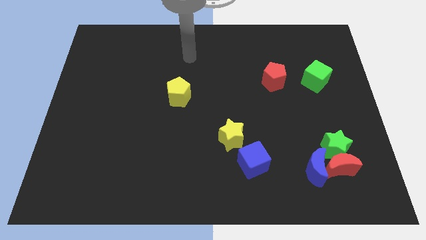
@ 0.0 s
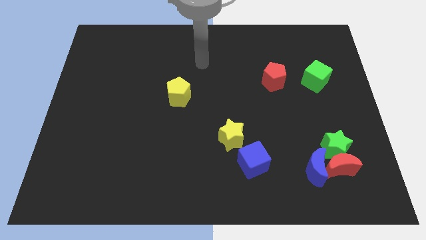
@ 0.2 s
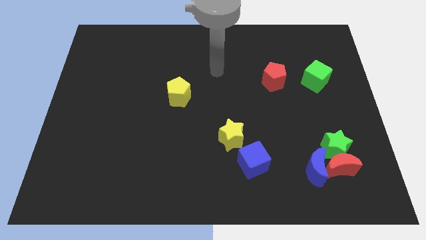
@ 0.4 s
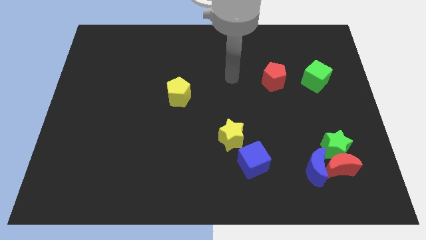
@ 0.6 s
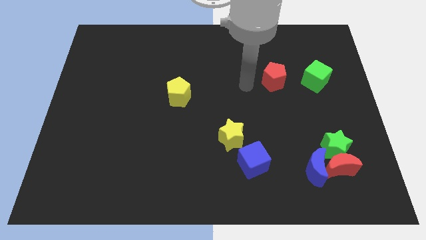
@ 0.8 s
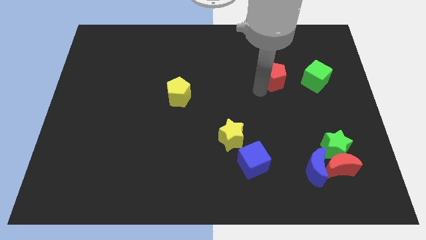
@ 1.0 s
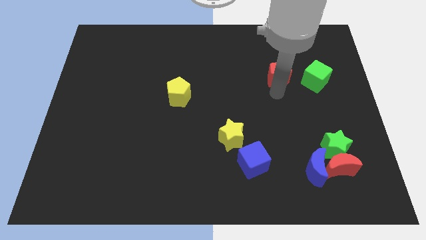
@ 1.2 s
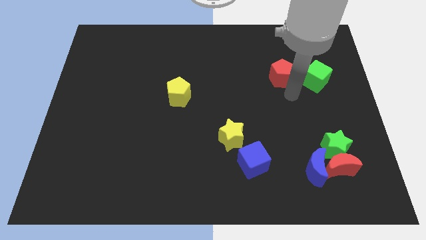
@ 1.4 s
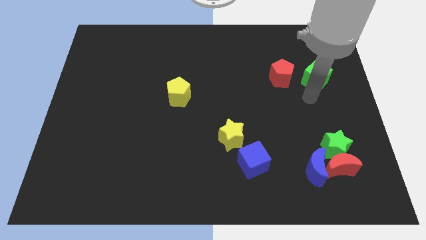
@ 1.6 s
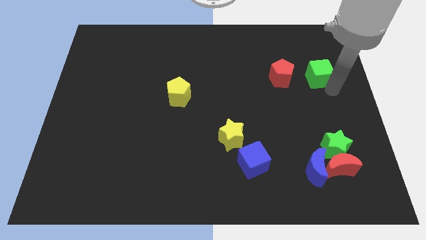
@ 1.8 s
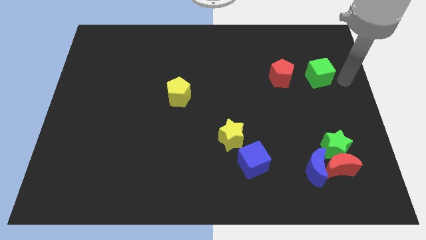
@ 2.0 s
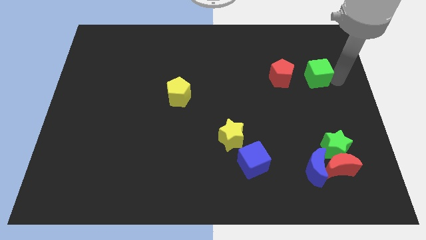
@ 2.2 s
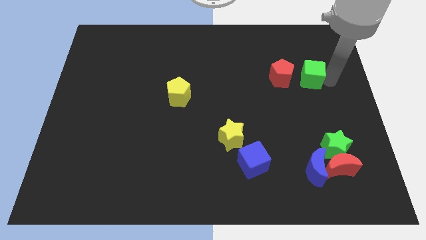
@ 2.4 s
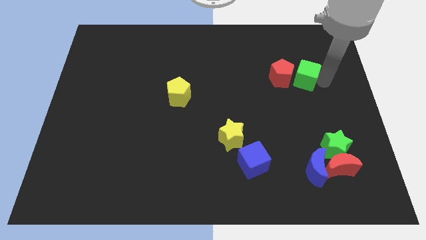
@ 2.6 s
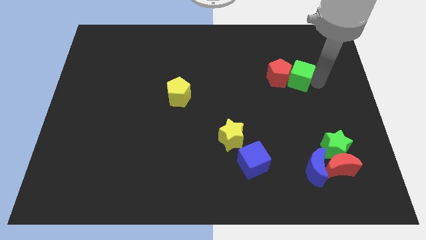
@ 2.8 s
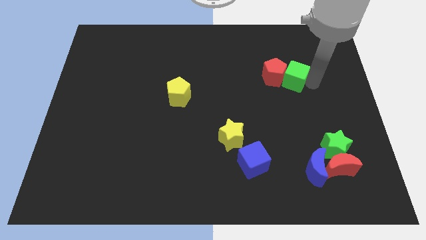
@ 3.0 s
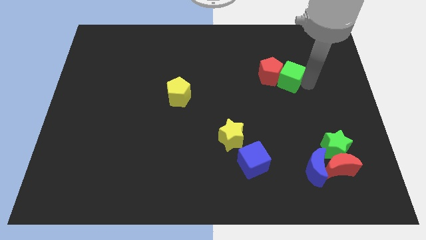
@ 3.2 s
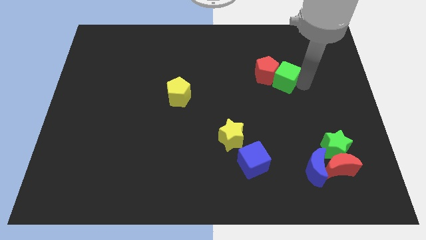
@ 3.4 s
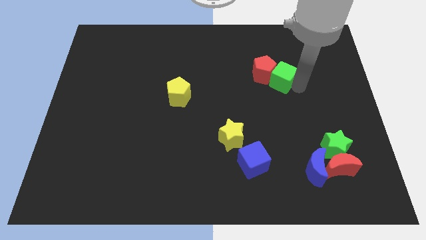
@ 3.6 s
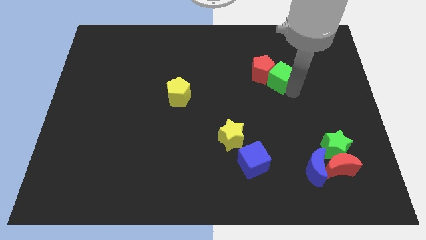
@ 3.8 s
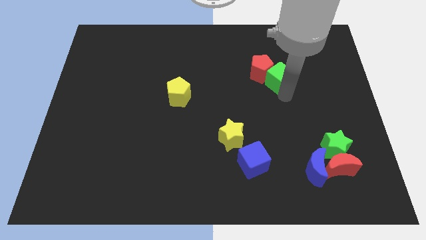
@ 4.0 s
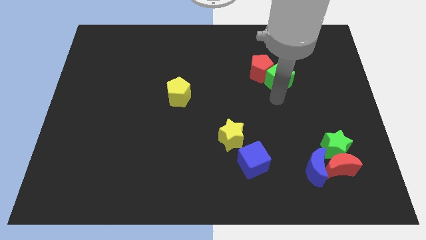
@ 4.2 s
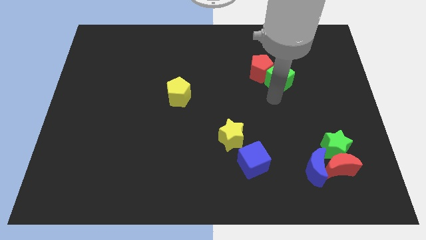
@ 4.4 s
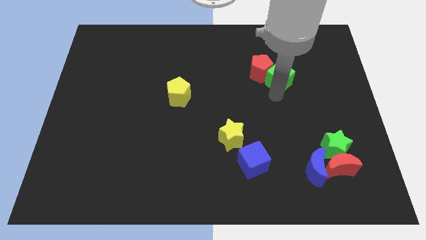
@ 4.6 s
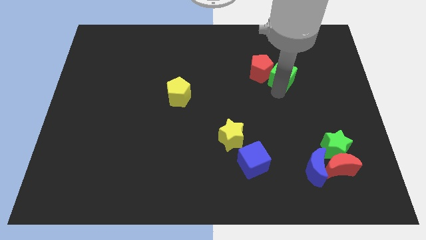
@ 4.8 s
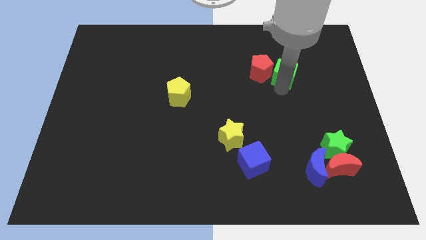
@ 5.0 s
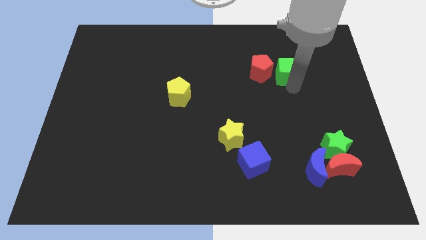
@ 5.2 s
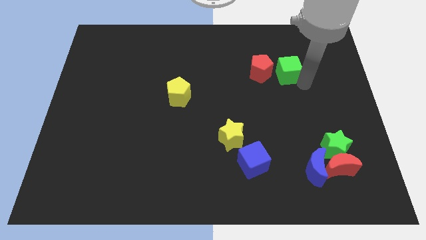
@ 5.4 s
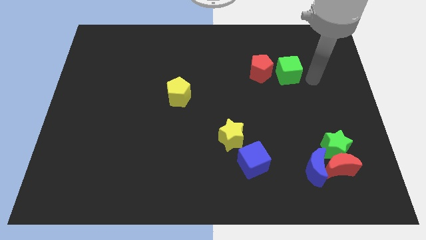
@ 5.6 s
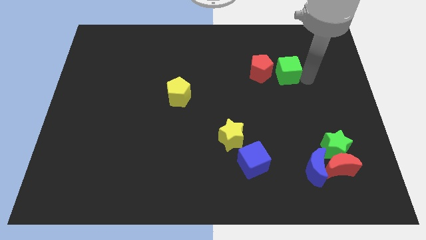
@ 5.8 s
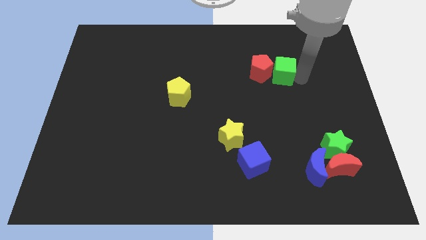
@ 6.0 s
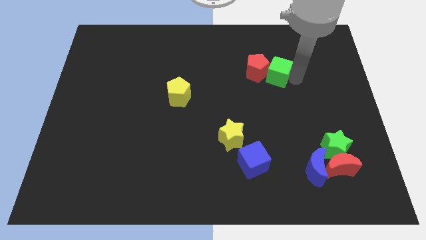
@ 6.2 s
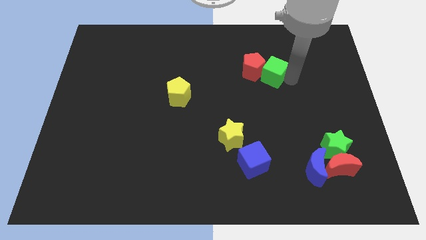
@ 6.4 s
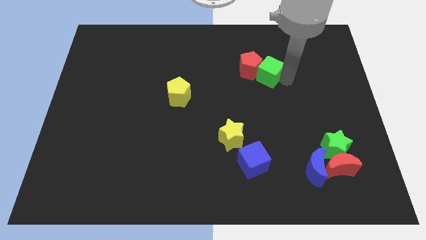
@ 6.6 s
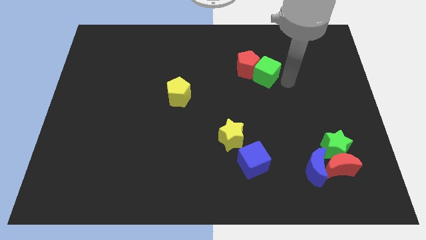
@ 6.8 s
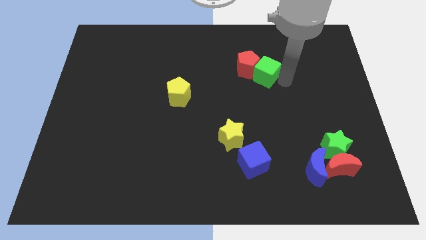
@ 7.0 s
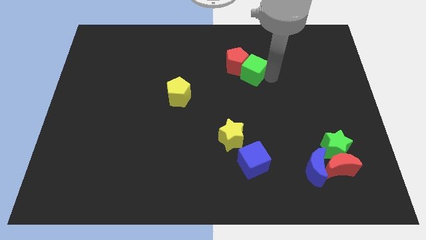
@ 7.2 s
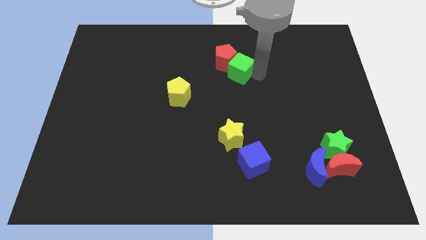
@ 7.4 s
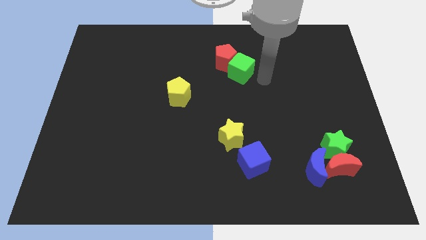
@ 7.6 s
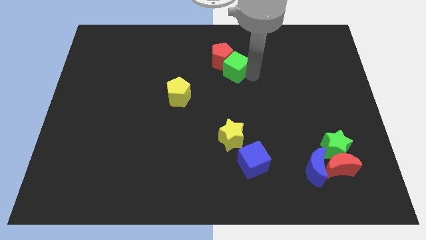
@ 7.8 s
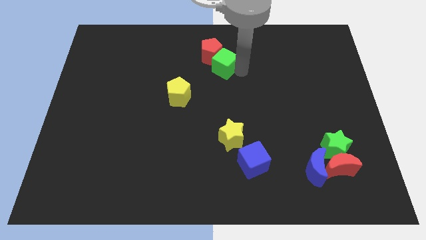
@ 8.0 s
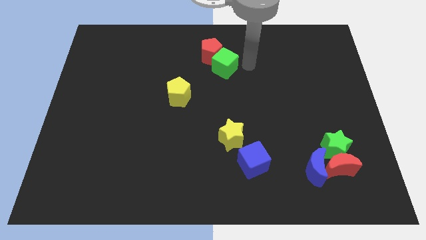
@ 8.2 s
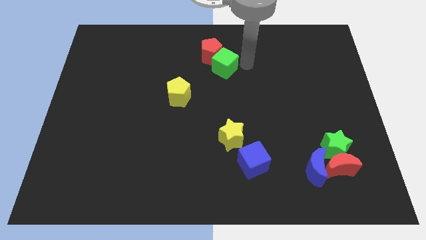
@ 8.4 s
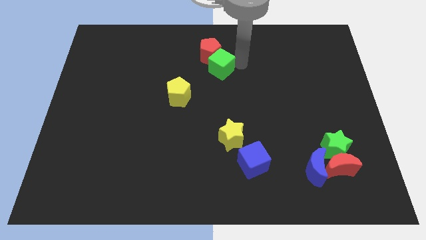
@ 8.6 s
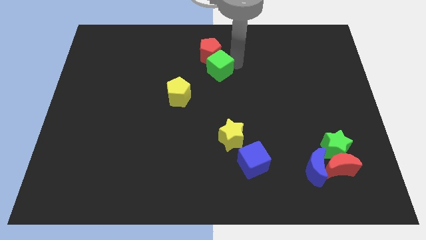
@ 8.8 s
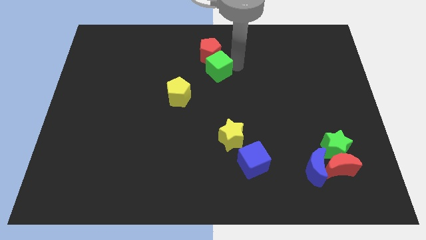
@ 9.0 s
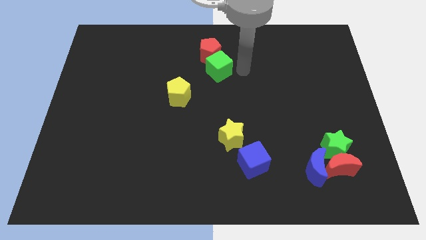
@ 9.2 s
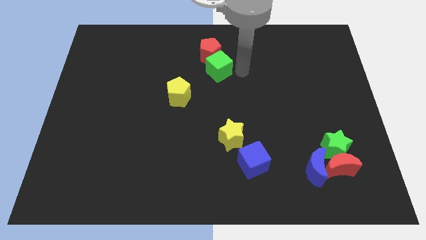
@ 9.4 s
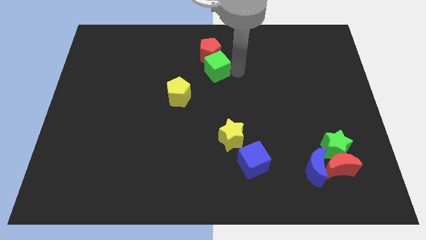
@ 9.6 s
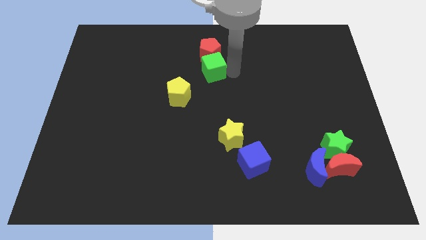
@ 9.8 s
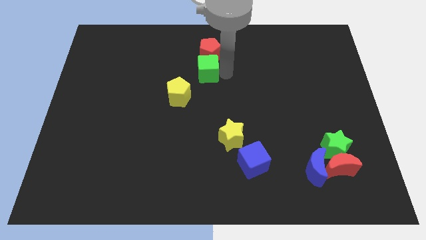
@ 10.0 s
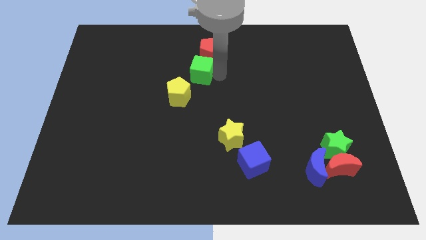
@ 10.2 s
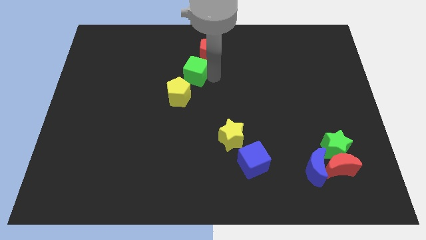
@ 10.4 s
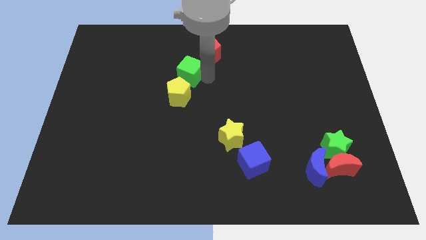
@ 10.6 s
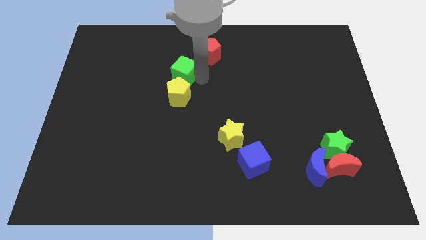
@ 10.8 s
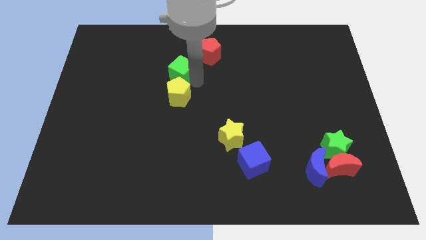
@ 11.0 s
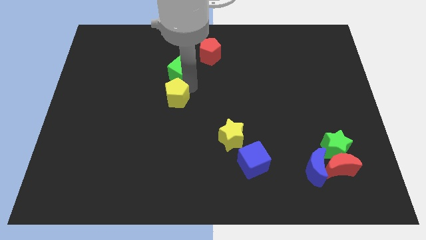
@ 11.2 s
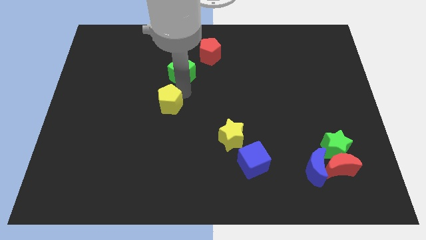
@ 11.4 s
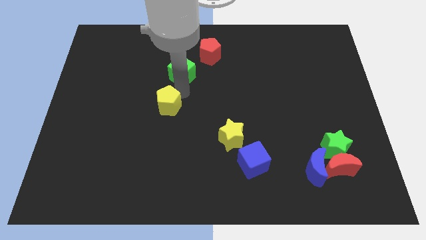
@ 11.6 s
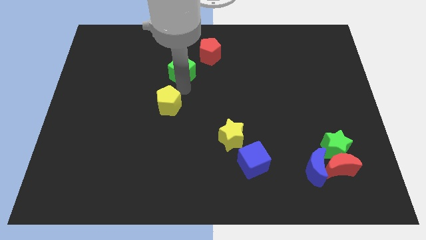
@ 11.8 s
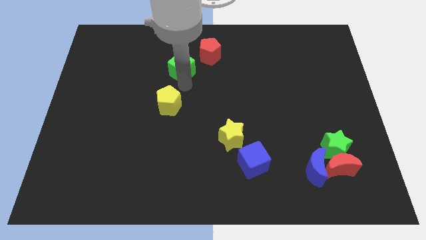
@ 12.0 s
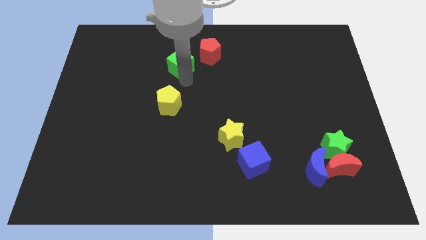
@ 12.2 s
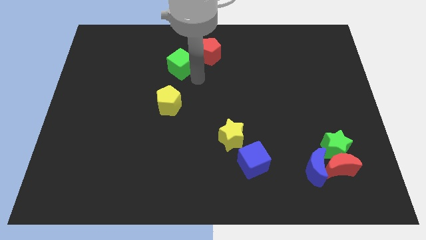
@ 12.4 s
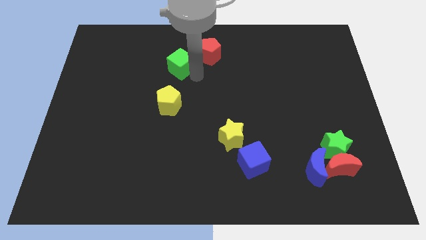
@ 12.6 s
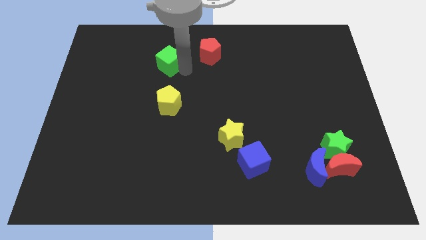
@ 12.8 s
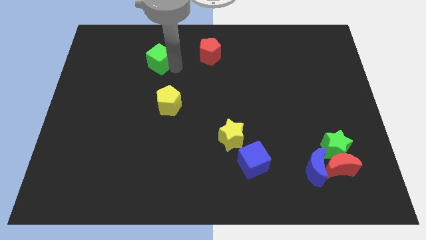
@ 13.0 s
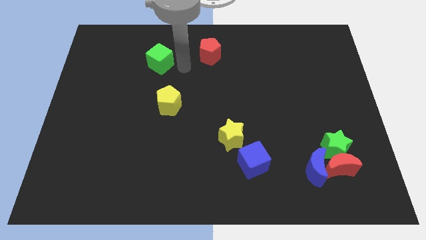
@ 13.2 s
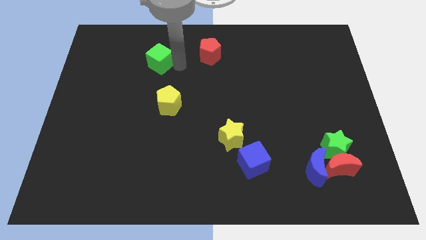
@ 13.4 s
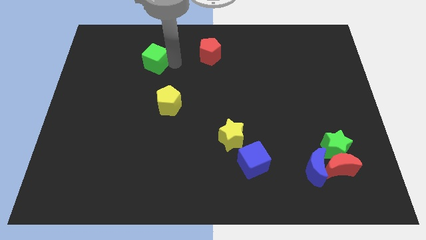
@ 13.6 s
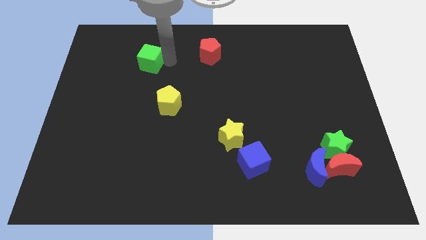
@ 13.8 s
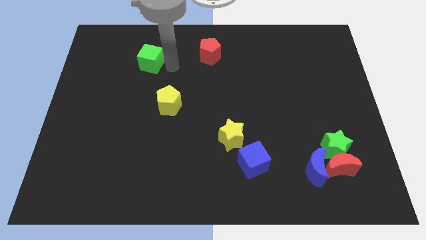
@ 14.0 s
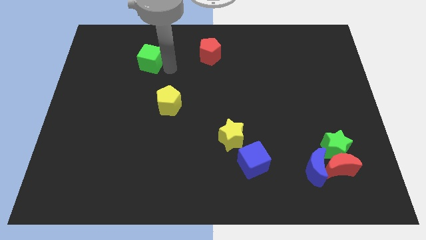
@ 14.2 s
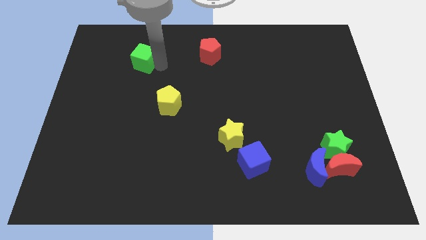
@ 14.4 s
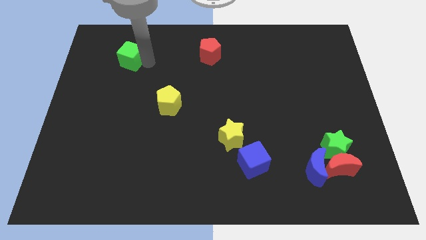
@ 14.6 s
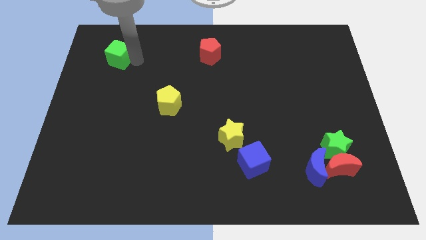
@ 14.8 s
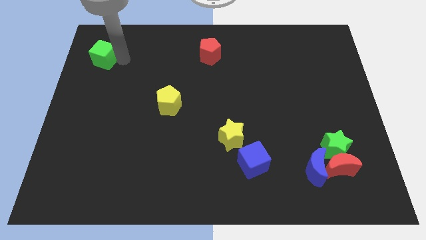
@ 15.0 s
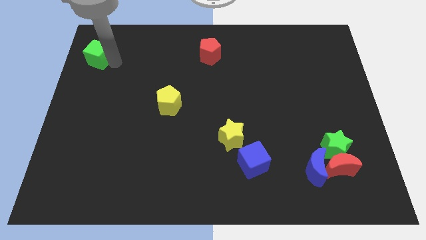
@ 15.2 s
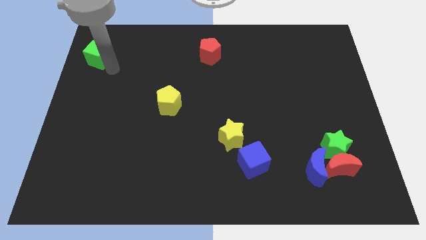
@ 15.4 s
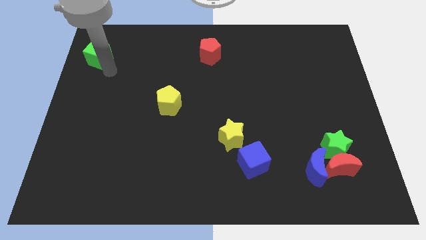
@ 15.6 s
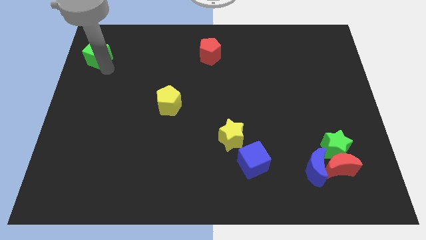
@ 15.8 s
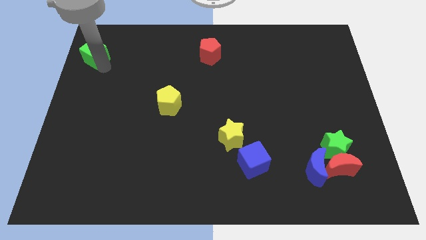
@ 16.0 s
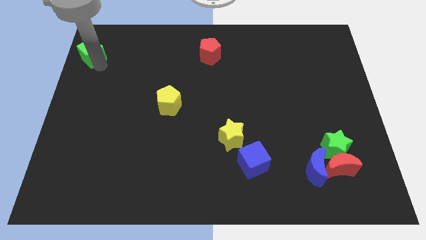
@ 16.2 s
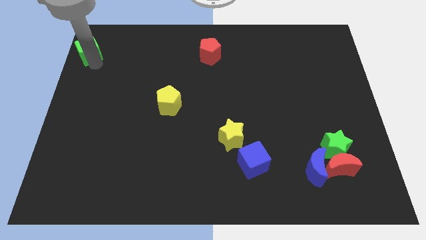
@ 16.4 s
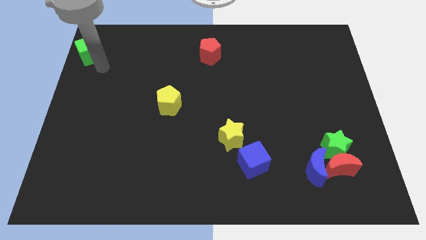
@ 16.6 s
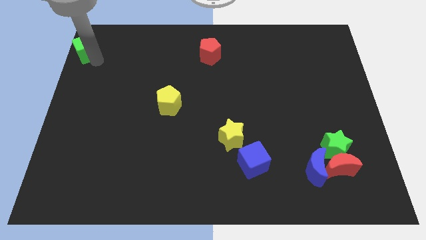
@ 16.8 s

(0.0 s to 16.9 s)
push the green cube to the top left
